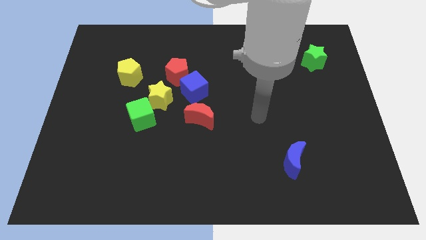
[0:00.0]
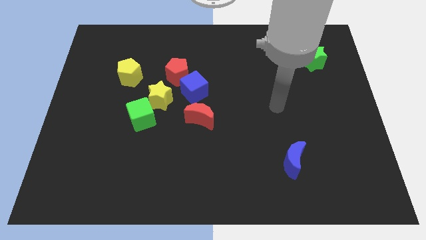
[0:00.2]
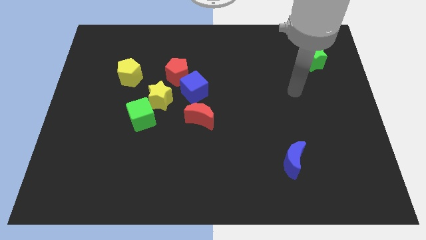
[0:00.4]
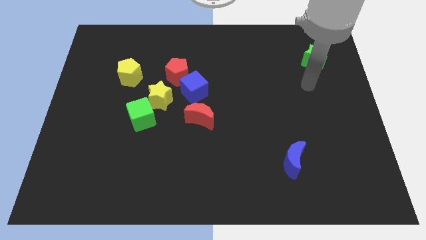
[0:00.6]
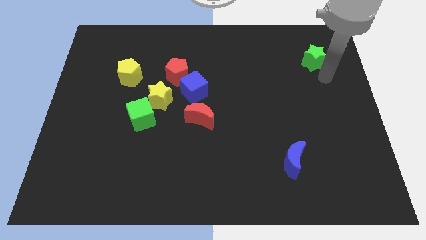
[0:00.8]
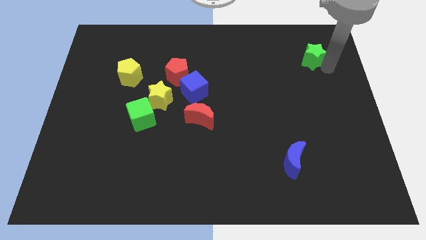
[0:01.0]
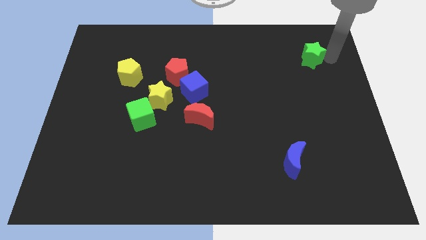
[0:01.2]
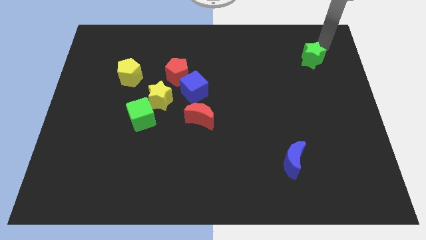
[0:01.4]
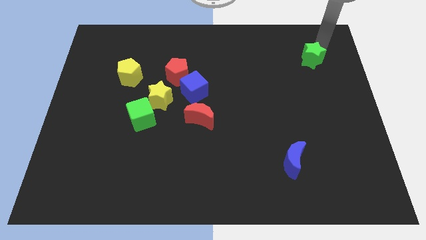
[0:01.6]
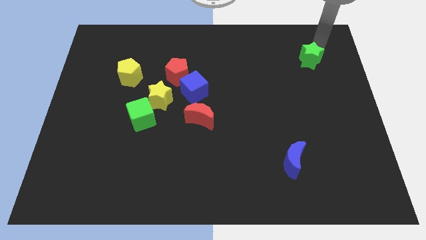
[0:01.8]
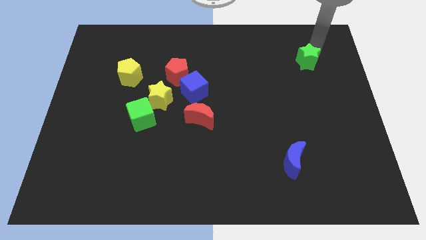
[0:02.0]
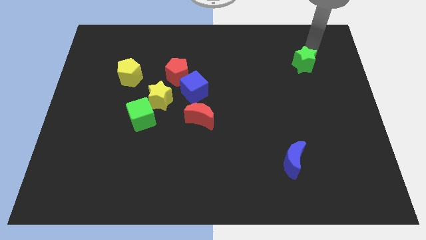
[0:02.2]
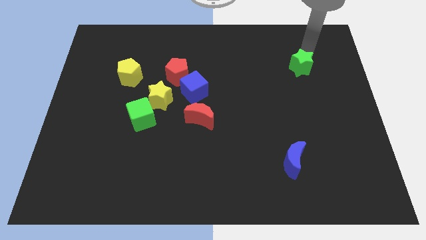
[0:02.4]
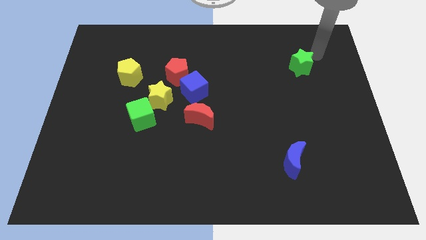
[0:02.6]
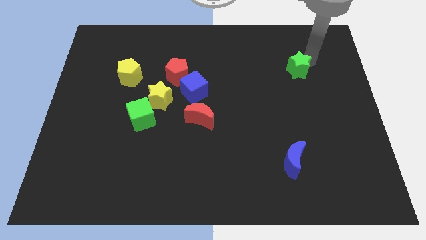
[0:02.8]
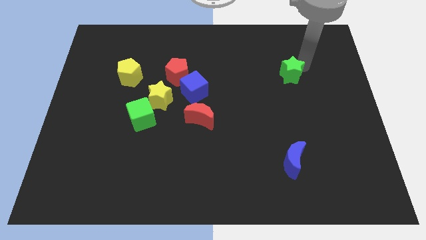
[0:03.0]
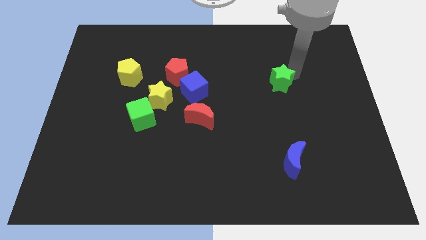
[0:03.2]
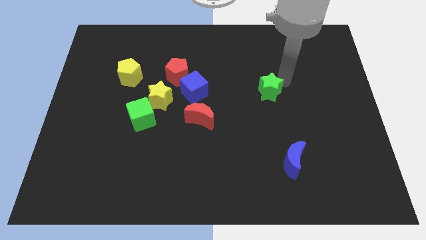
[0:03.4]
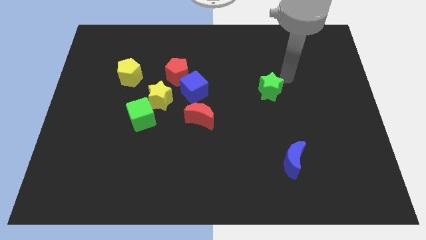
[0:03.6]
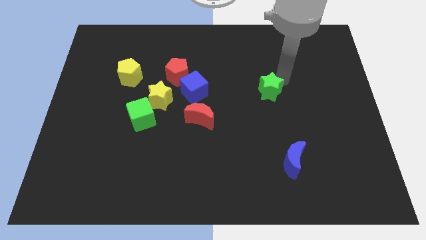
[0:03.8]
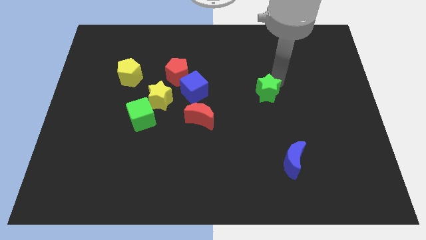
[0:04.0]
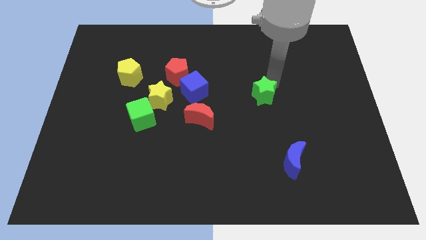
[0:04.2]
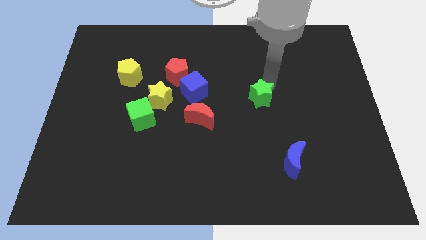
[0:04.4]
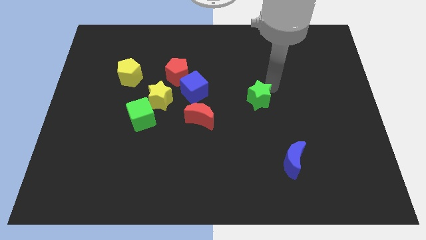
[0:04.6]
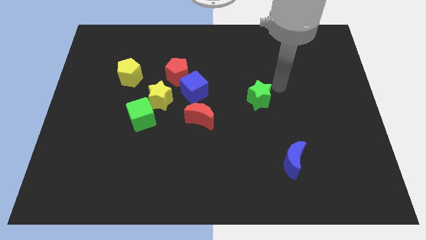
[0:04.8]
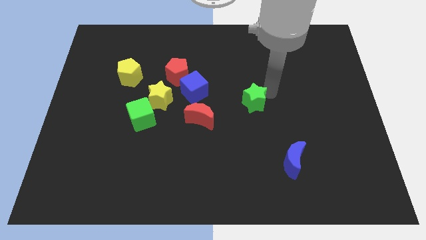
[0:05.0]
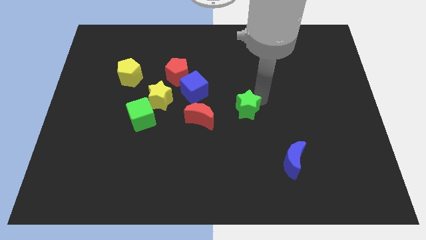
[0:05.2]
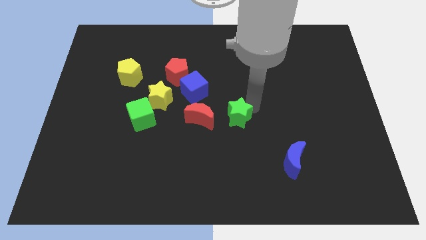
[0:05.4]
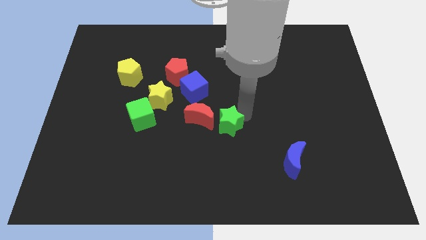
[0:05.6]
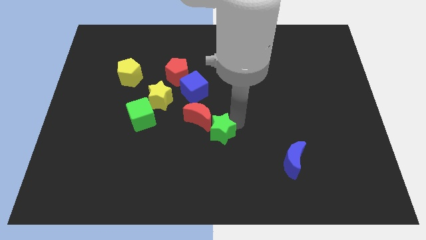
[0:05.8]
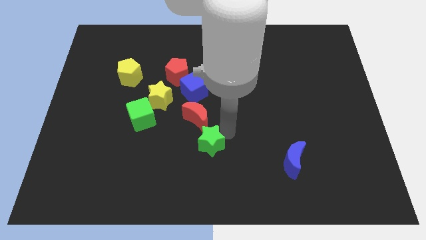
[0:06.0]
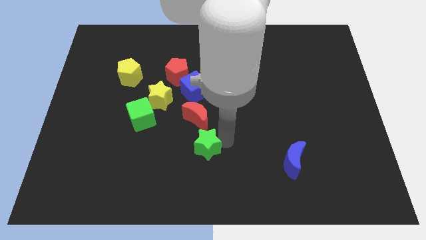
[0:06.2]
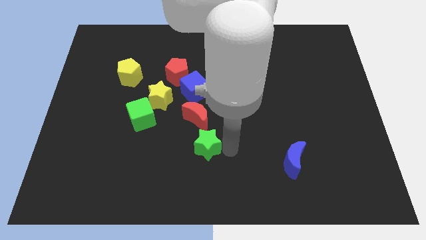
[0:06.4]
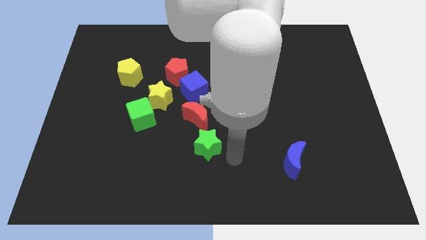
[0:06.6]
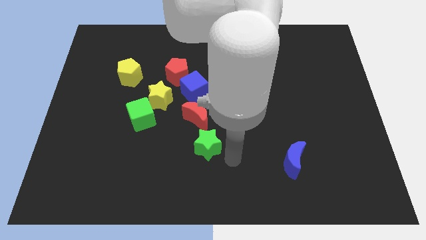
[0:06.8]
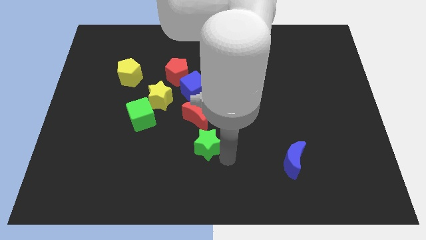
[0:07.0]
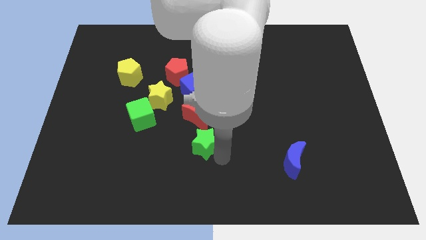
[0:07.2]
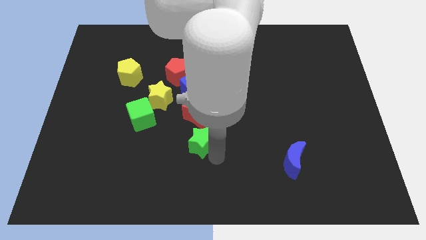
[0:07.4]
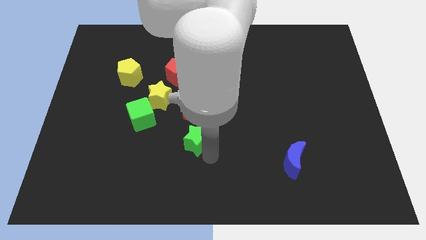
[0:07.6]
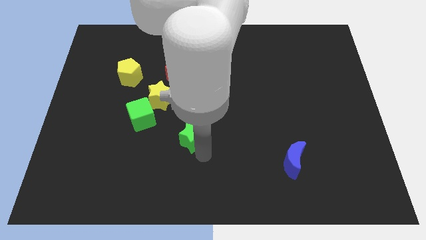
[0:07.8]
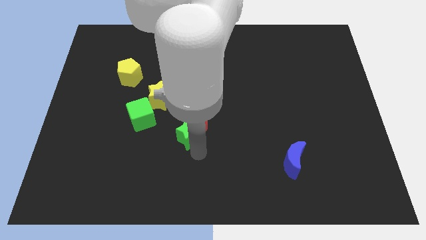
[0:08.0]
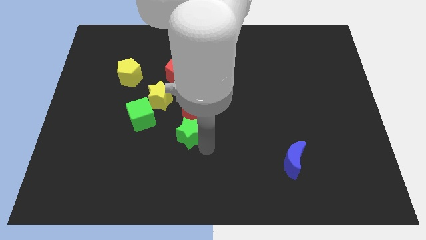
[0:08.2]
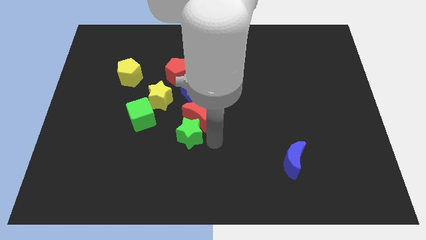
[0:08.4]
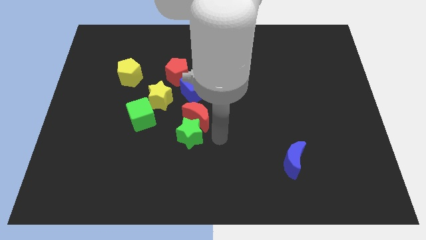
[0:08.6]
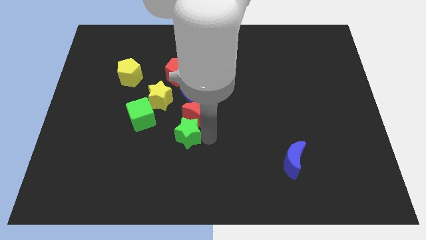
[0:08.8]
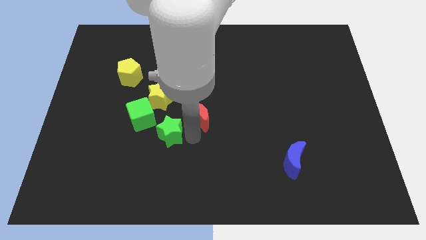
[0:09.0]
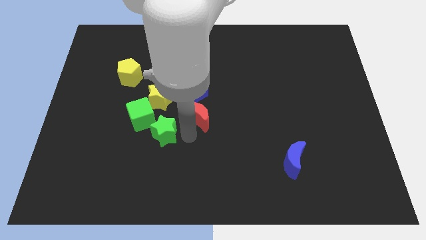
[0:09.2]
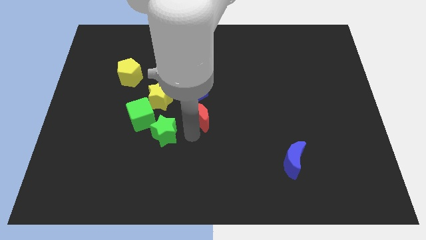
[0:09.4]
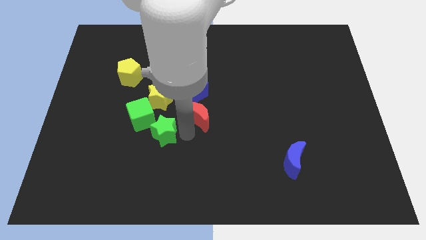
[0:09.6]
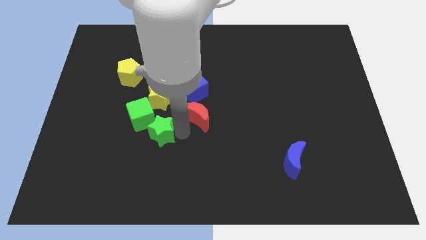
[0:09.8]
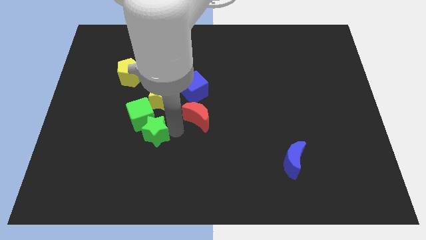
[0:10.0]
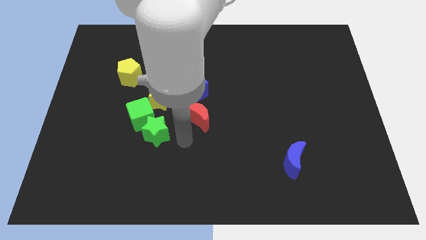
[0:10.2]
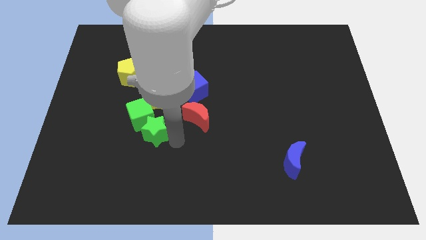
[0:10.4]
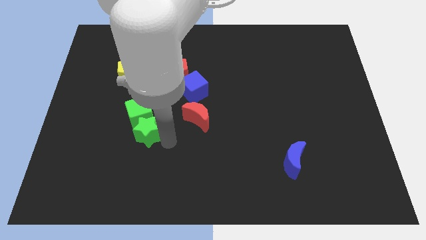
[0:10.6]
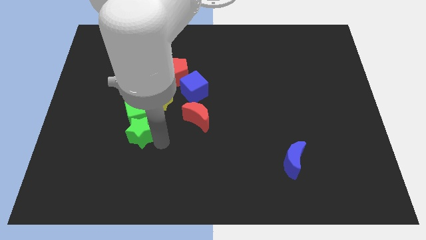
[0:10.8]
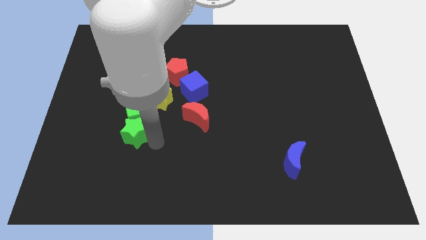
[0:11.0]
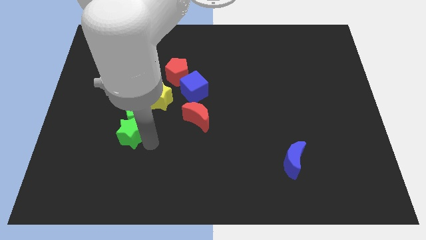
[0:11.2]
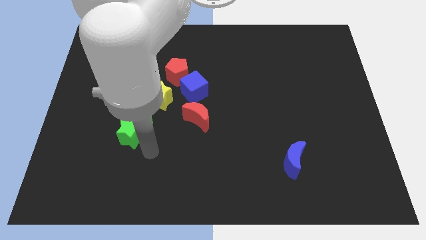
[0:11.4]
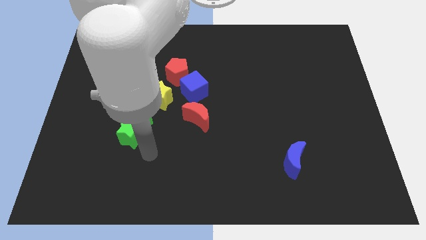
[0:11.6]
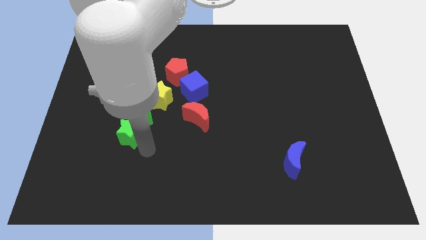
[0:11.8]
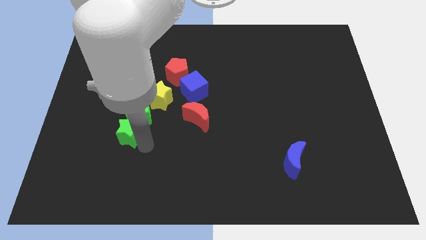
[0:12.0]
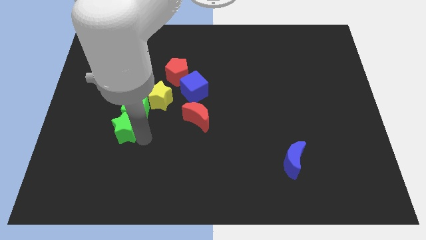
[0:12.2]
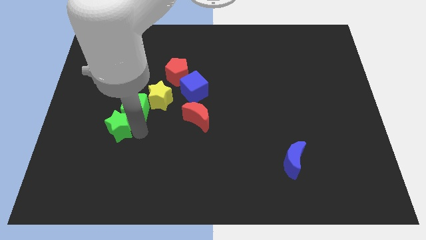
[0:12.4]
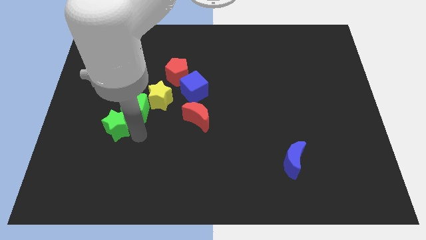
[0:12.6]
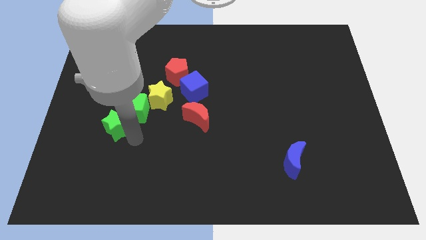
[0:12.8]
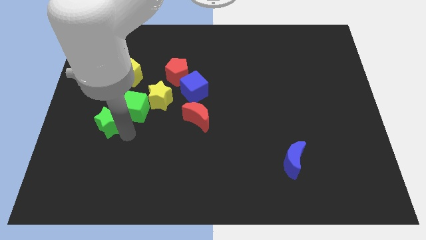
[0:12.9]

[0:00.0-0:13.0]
push the green star to the left of the green cube

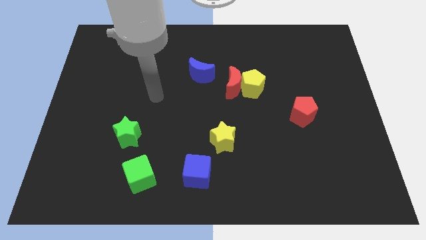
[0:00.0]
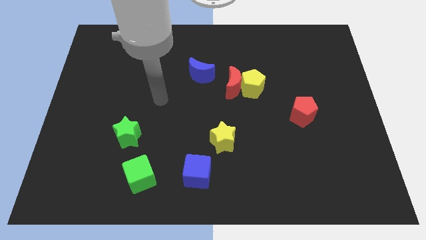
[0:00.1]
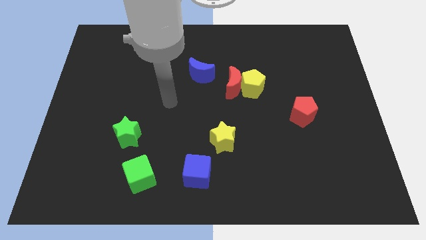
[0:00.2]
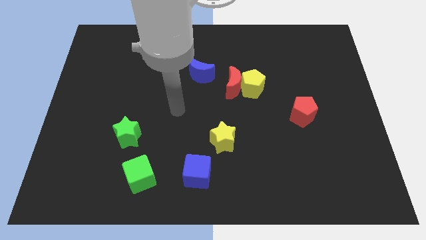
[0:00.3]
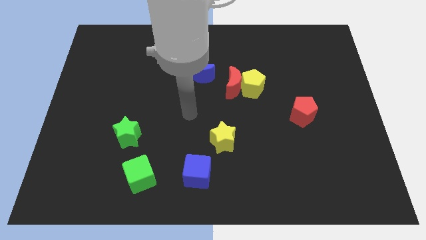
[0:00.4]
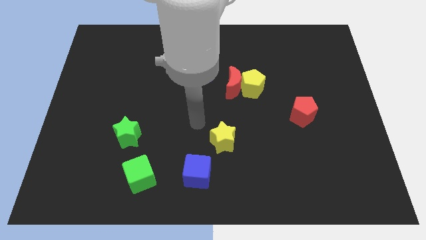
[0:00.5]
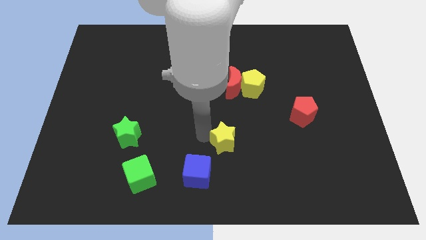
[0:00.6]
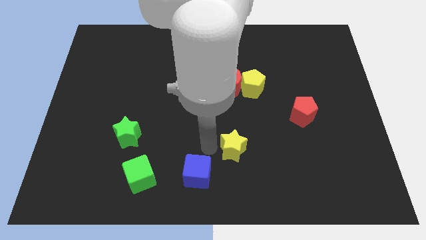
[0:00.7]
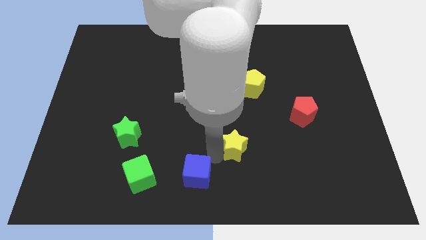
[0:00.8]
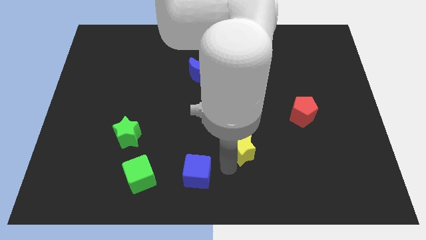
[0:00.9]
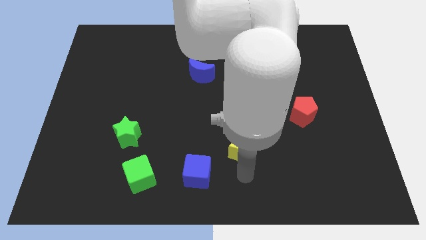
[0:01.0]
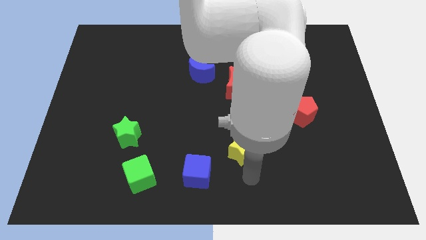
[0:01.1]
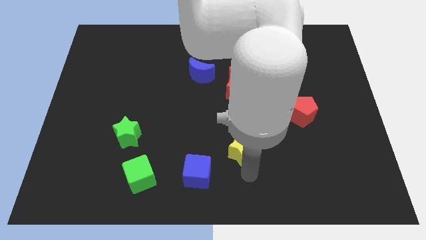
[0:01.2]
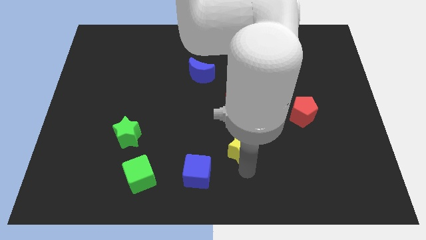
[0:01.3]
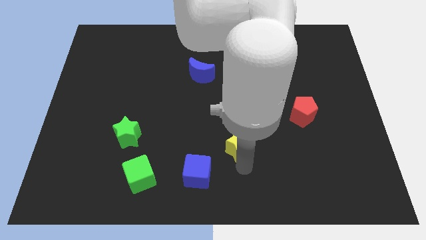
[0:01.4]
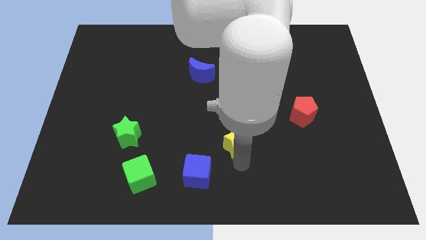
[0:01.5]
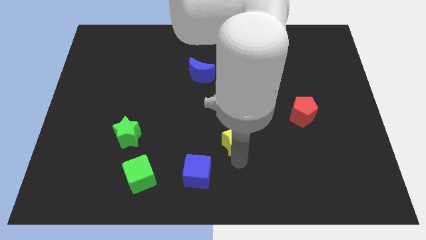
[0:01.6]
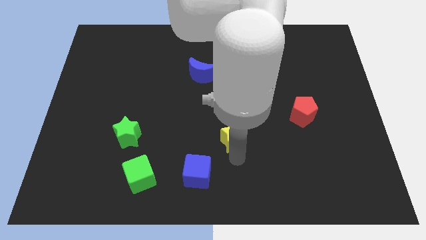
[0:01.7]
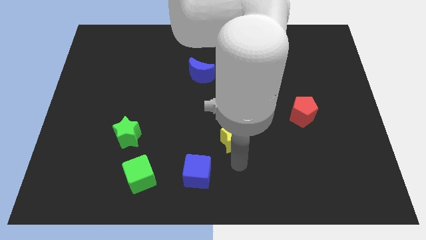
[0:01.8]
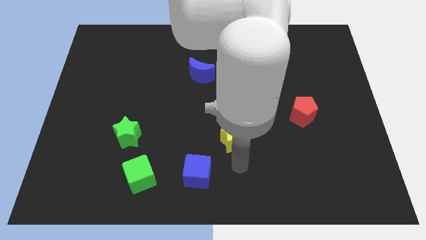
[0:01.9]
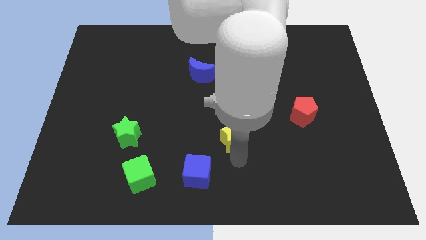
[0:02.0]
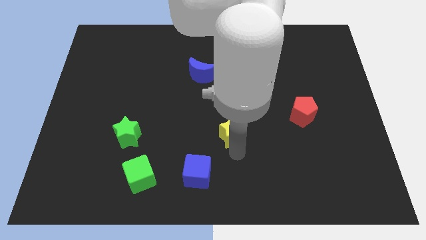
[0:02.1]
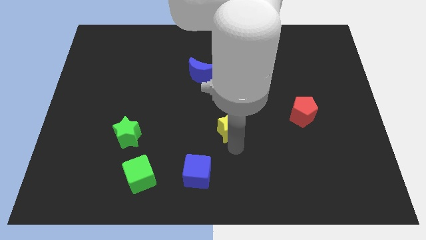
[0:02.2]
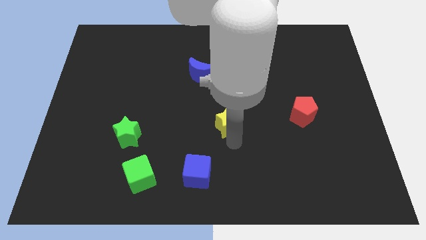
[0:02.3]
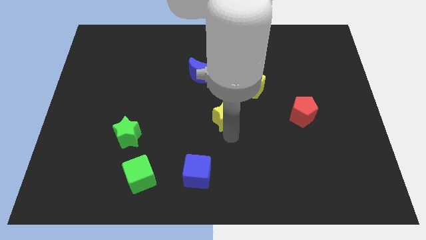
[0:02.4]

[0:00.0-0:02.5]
push the yellow star to the bottom left of the yellow pentagon
